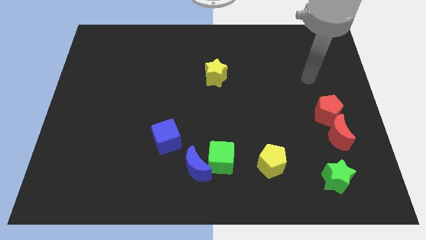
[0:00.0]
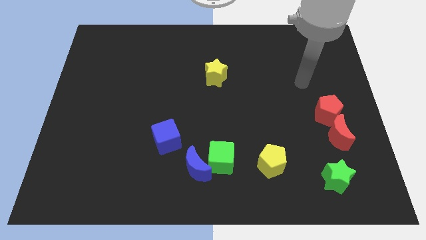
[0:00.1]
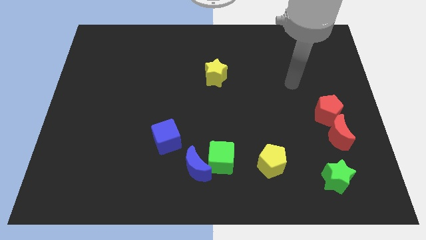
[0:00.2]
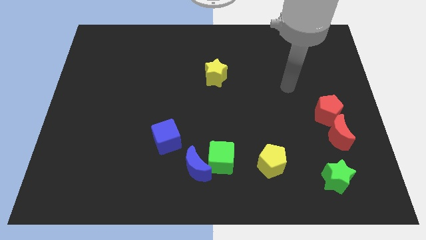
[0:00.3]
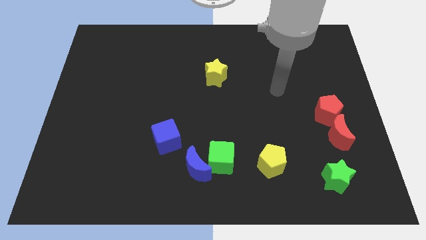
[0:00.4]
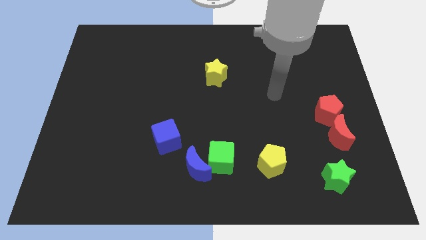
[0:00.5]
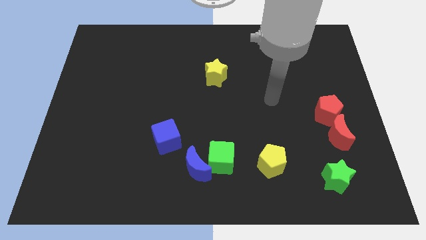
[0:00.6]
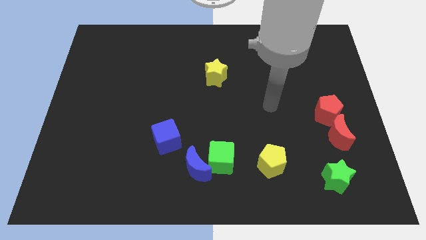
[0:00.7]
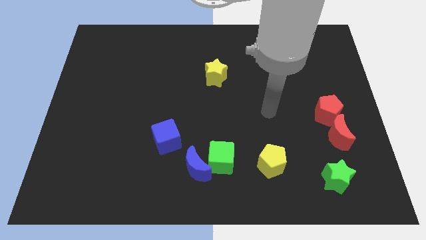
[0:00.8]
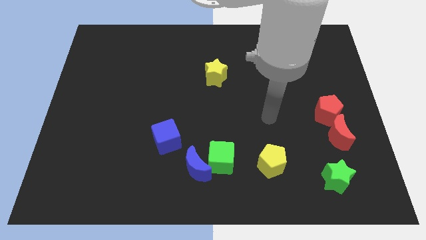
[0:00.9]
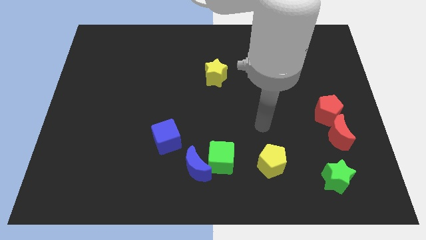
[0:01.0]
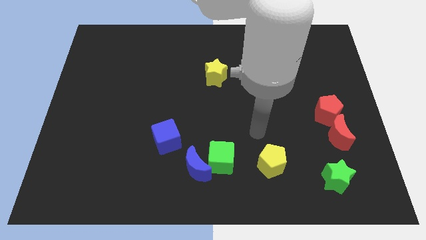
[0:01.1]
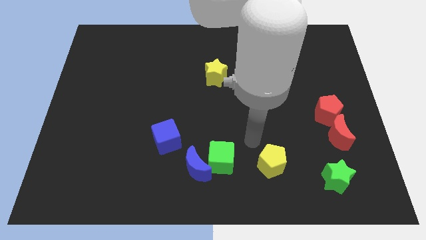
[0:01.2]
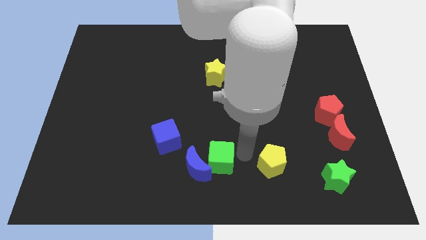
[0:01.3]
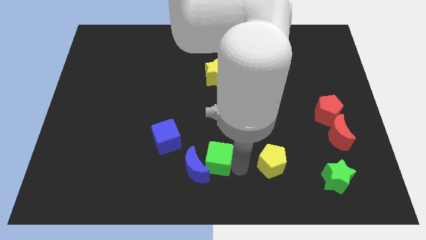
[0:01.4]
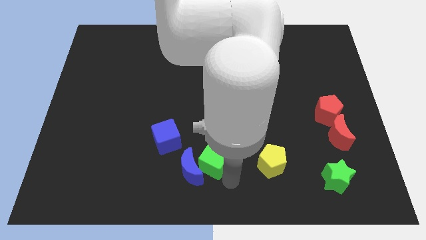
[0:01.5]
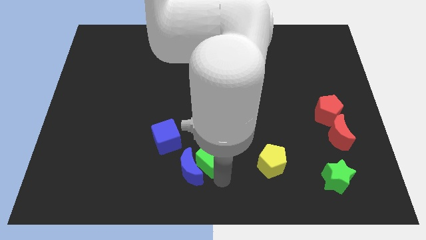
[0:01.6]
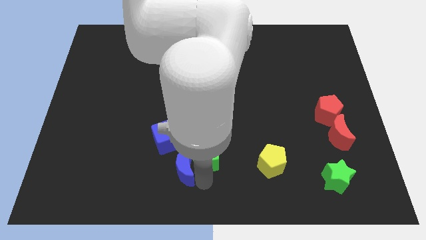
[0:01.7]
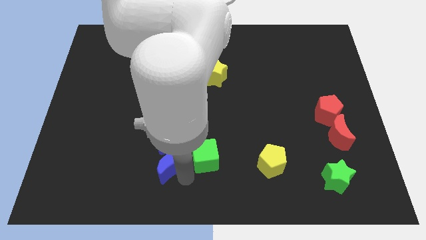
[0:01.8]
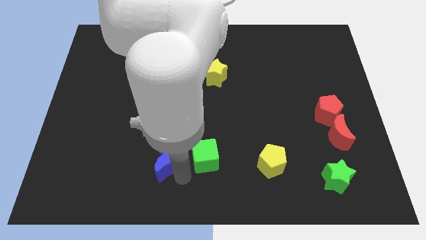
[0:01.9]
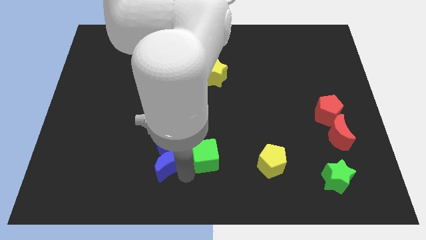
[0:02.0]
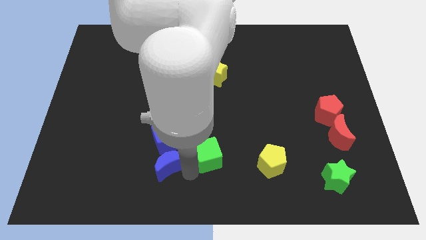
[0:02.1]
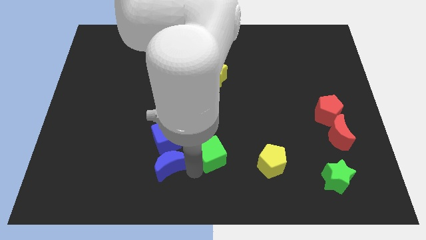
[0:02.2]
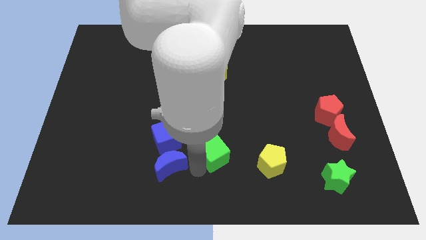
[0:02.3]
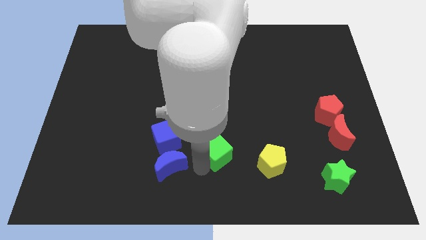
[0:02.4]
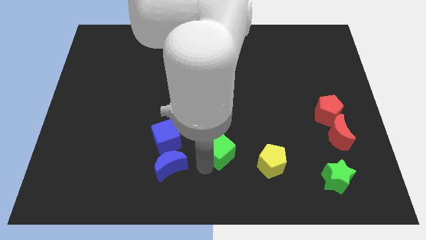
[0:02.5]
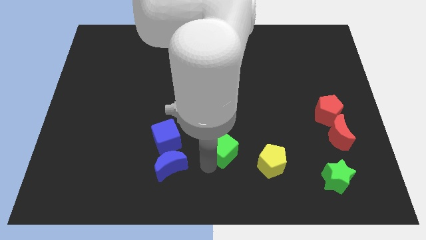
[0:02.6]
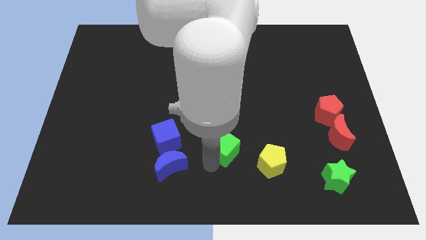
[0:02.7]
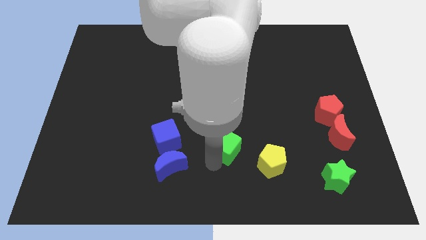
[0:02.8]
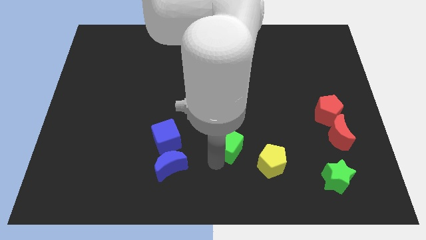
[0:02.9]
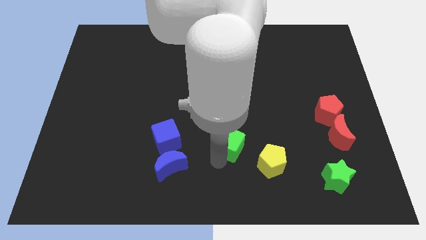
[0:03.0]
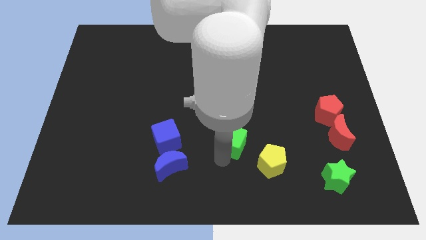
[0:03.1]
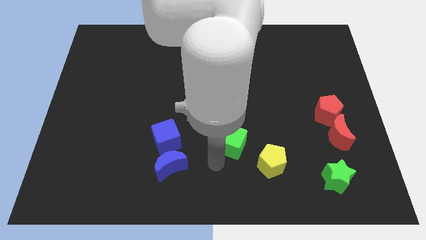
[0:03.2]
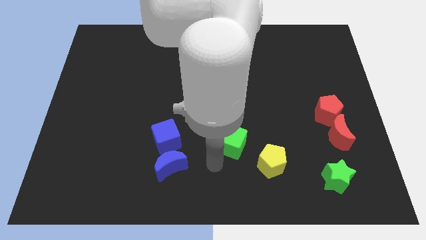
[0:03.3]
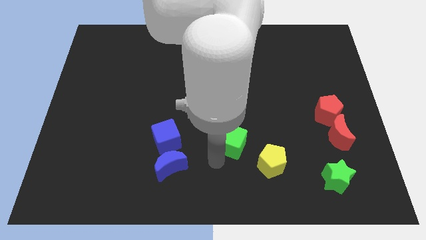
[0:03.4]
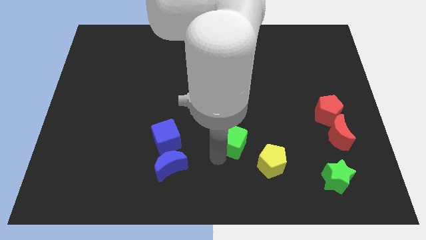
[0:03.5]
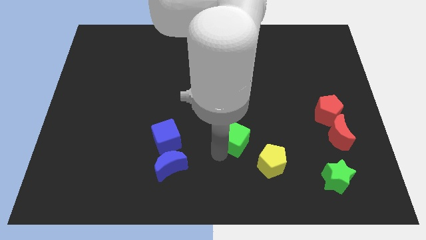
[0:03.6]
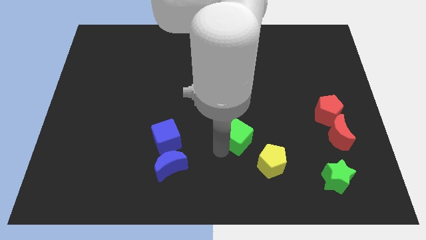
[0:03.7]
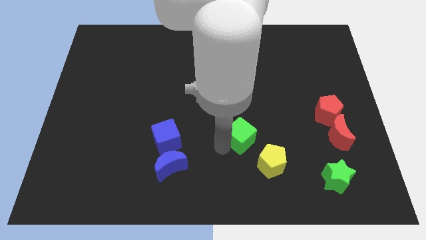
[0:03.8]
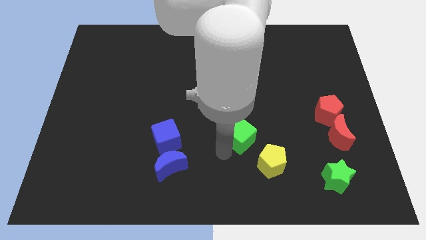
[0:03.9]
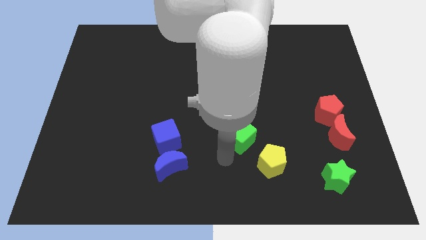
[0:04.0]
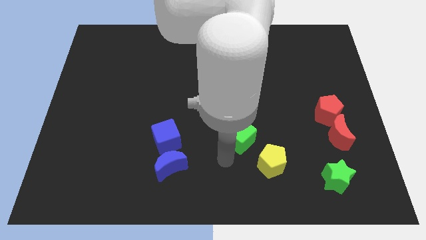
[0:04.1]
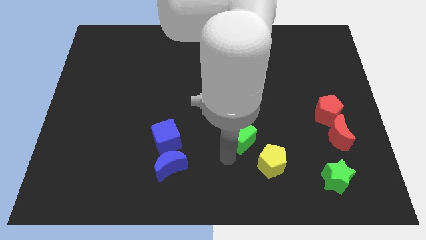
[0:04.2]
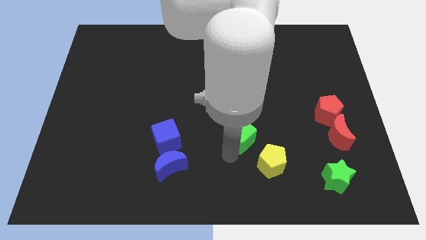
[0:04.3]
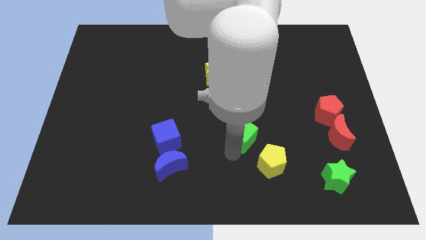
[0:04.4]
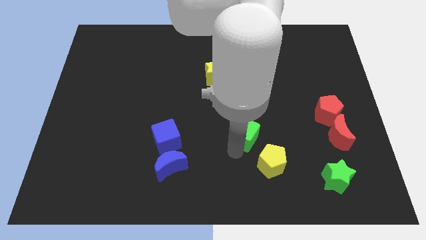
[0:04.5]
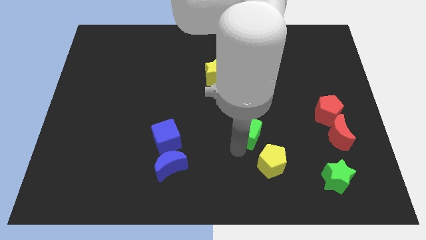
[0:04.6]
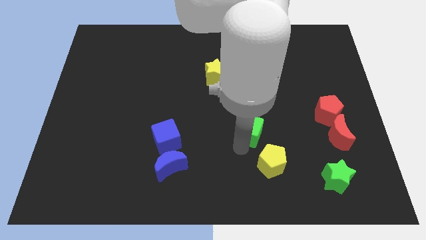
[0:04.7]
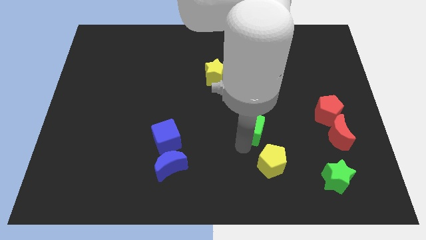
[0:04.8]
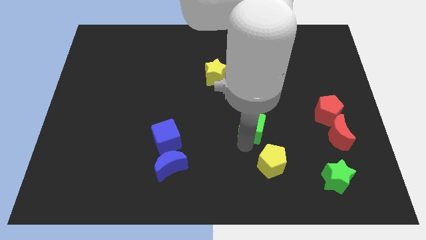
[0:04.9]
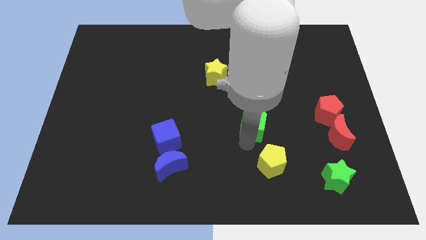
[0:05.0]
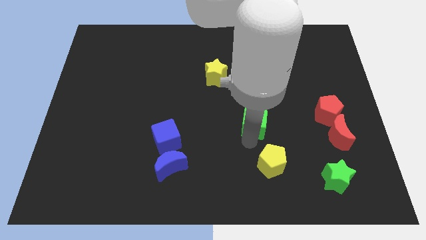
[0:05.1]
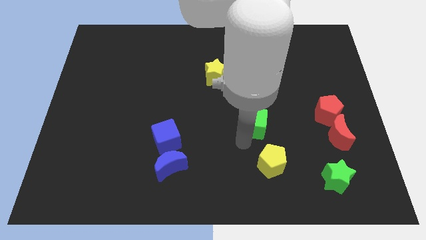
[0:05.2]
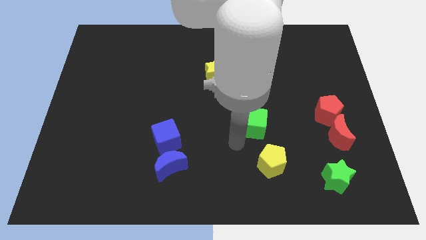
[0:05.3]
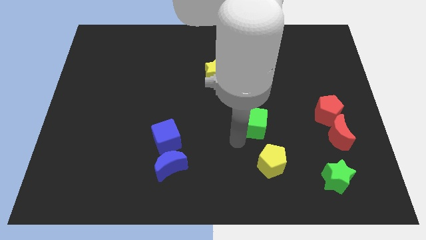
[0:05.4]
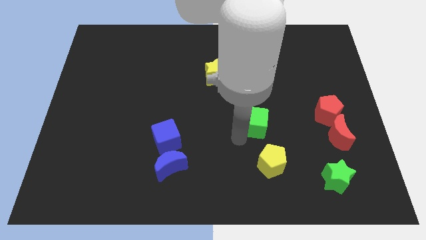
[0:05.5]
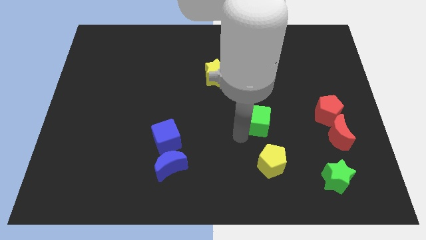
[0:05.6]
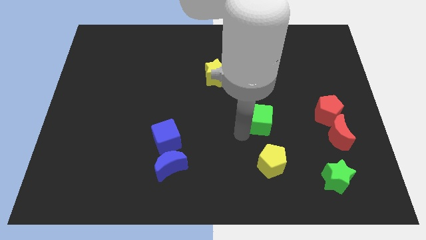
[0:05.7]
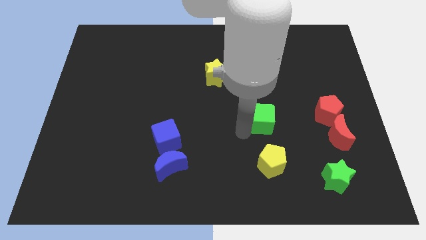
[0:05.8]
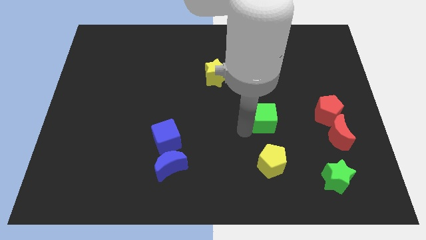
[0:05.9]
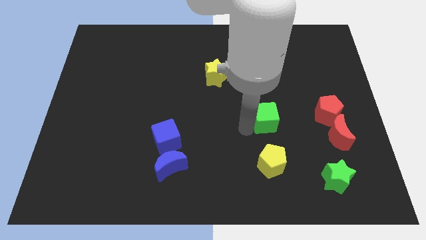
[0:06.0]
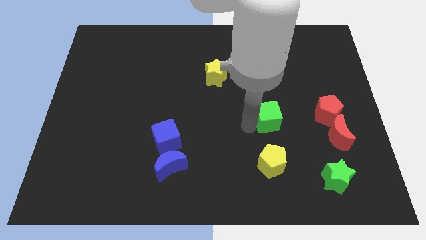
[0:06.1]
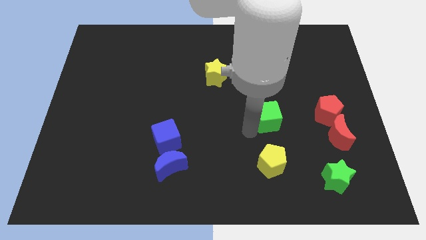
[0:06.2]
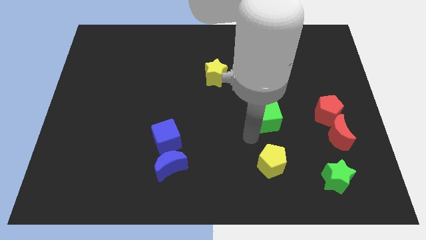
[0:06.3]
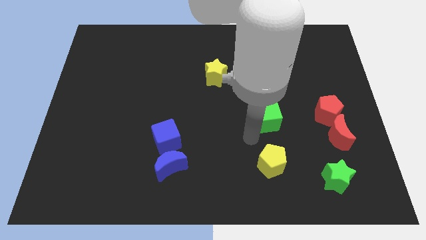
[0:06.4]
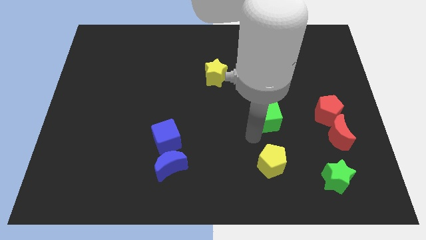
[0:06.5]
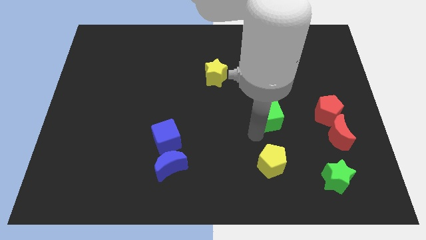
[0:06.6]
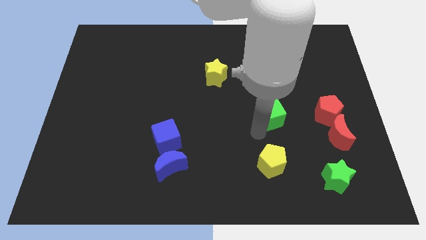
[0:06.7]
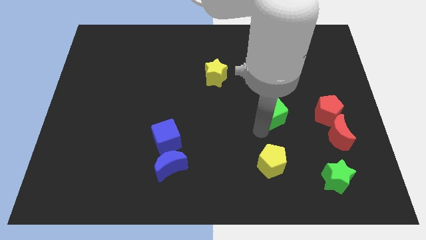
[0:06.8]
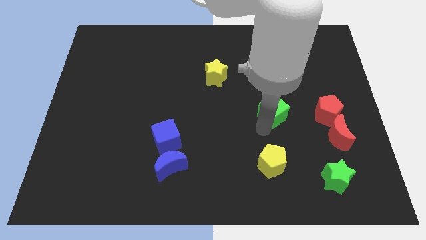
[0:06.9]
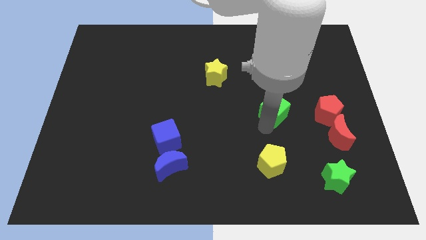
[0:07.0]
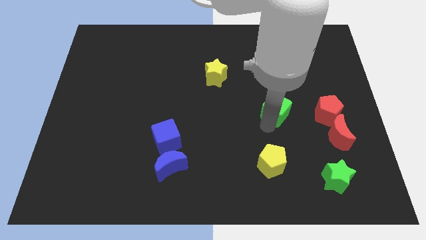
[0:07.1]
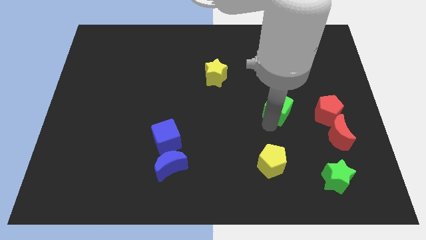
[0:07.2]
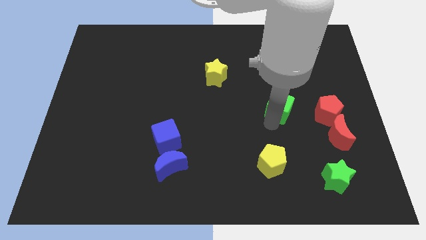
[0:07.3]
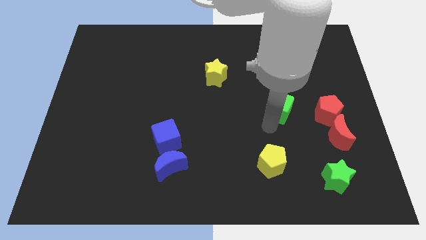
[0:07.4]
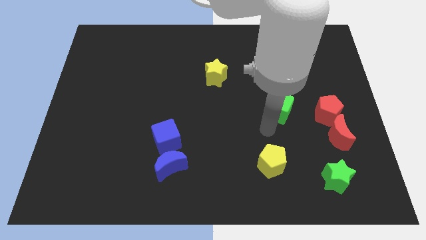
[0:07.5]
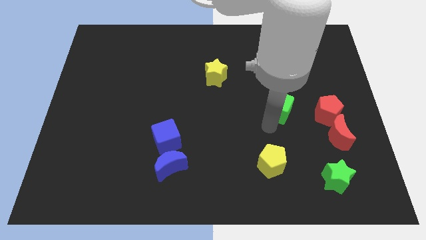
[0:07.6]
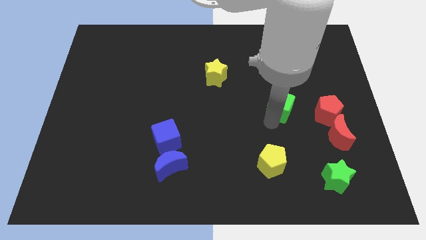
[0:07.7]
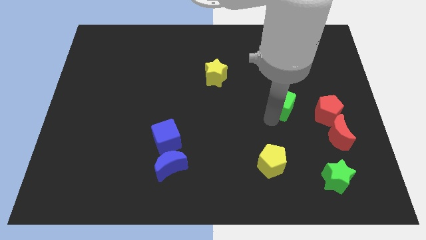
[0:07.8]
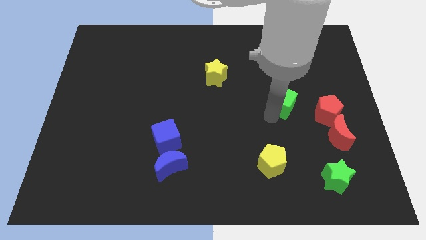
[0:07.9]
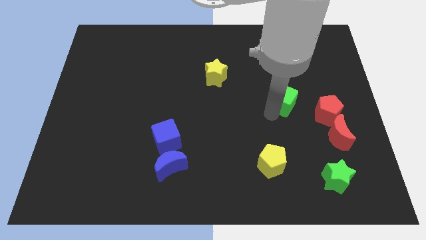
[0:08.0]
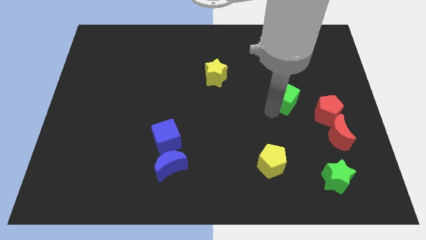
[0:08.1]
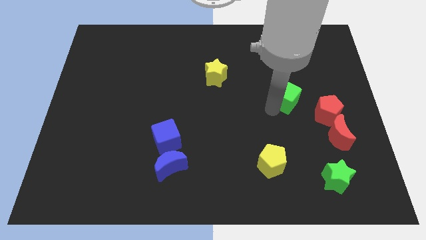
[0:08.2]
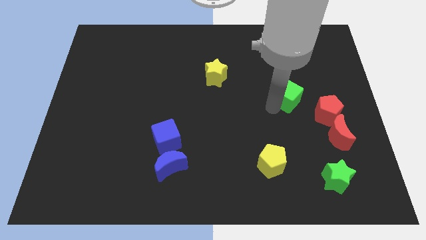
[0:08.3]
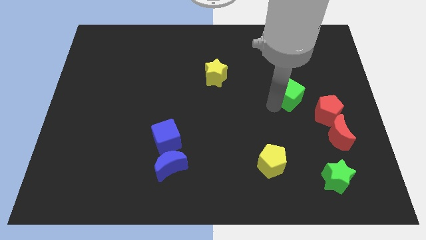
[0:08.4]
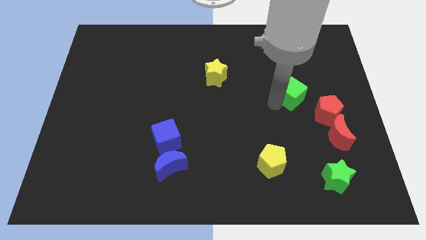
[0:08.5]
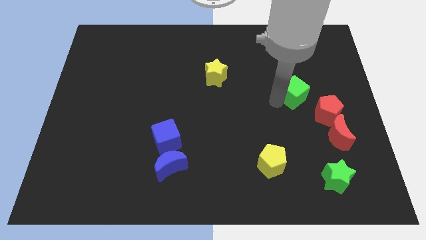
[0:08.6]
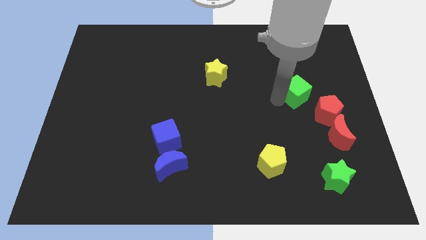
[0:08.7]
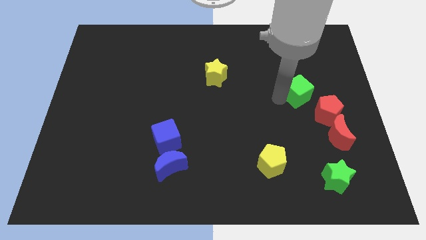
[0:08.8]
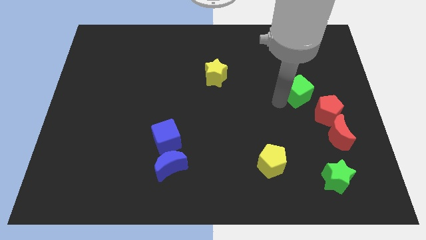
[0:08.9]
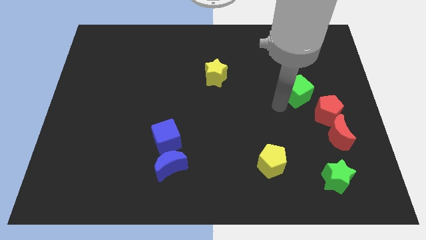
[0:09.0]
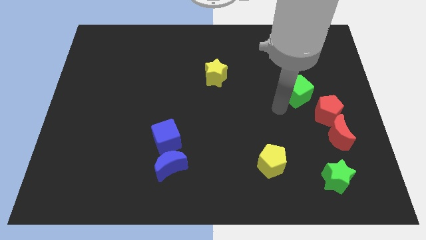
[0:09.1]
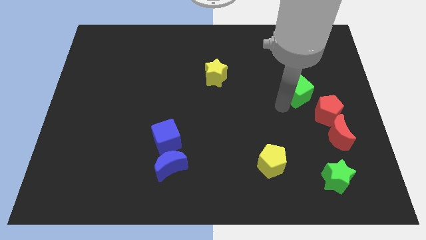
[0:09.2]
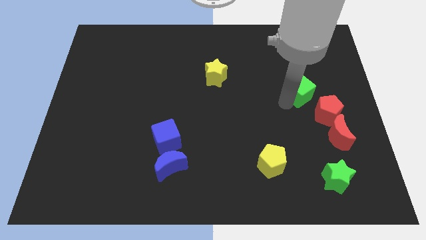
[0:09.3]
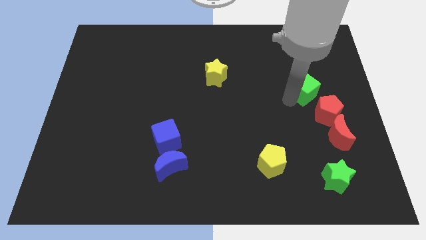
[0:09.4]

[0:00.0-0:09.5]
slide the green cube to the top side of the red pentagon
